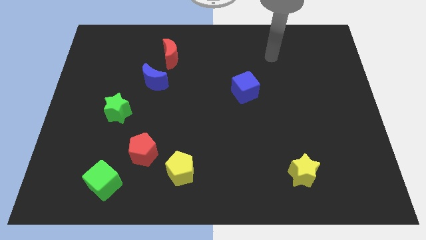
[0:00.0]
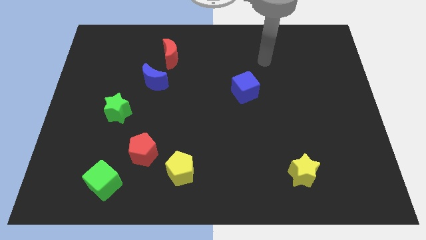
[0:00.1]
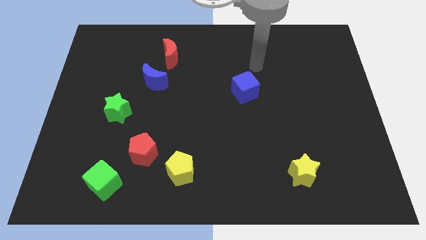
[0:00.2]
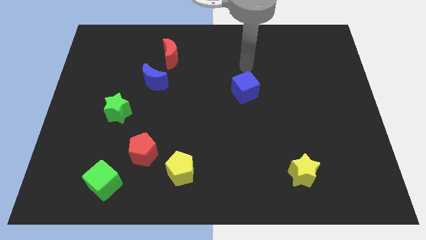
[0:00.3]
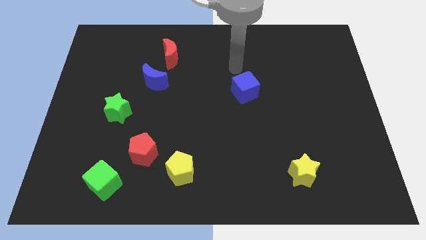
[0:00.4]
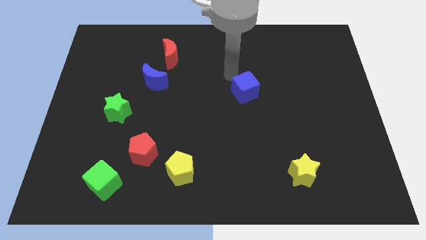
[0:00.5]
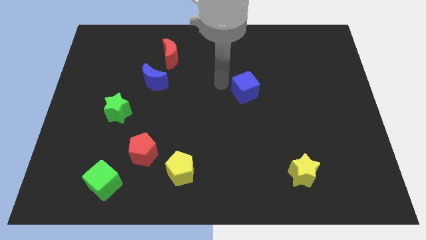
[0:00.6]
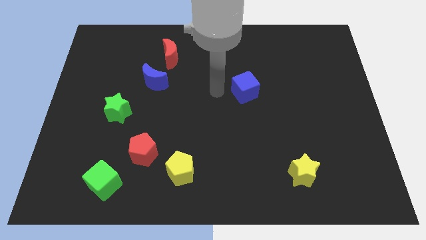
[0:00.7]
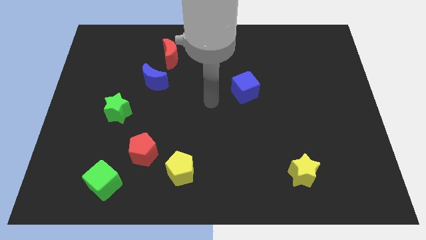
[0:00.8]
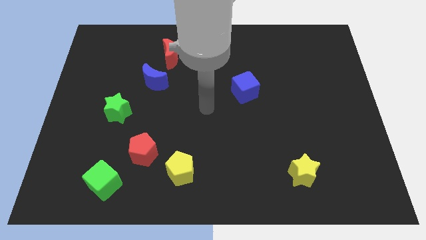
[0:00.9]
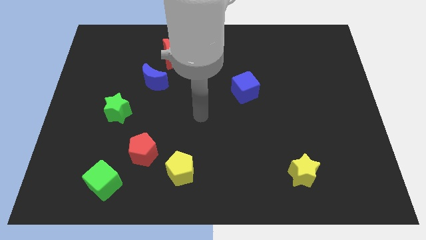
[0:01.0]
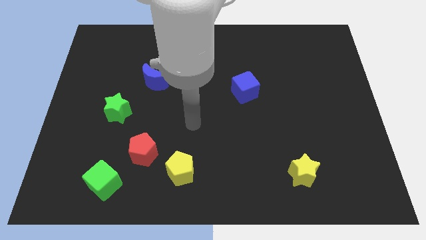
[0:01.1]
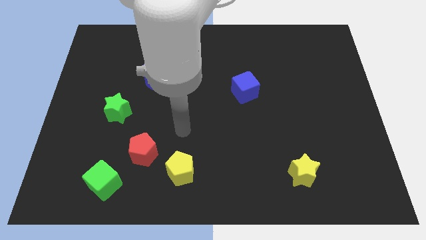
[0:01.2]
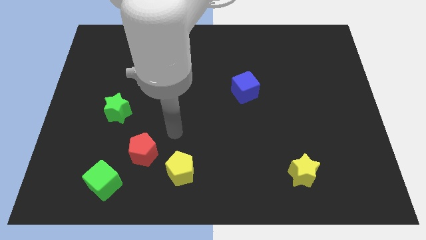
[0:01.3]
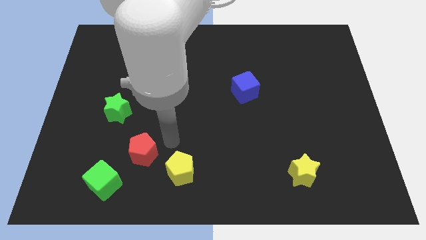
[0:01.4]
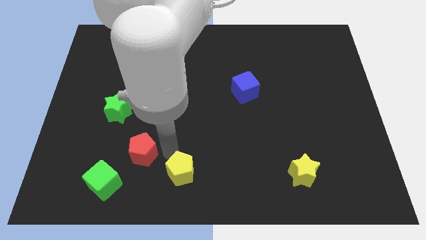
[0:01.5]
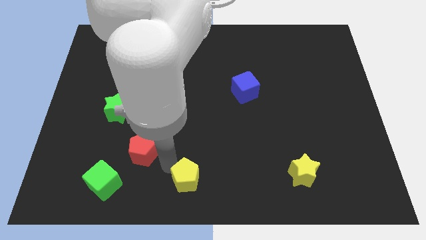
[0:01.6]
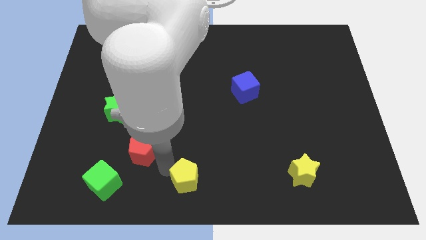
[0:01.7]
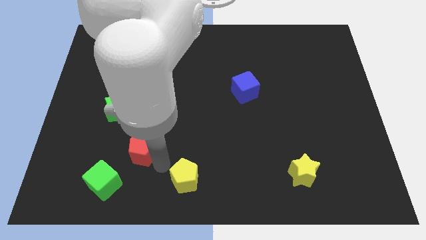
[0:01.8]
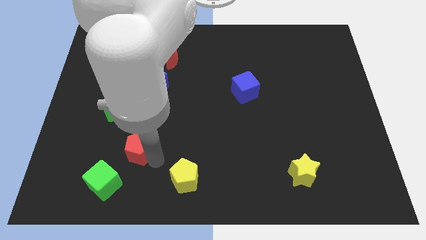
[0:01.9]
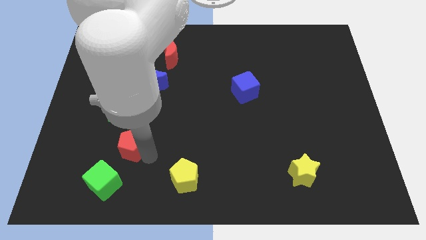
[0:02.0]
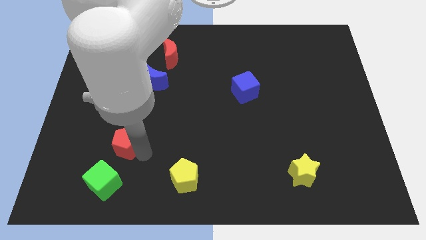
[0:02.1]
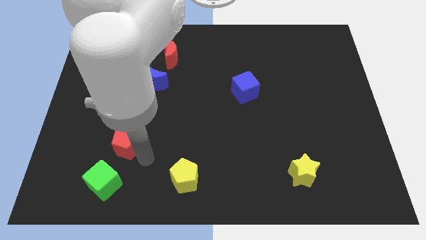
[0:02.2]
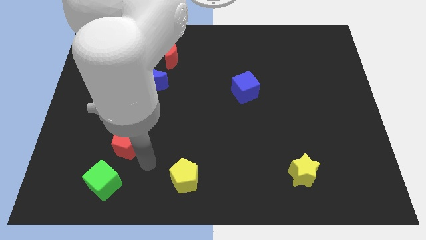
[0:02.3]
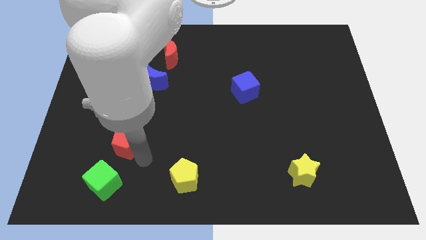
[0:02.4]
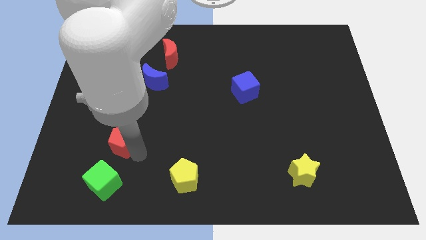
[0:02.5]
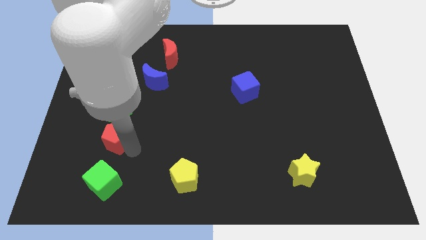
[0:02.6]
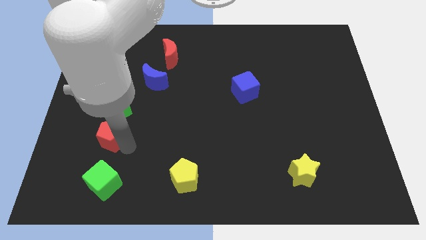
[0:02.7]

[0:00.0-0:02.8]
slightly move the red pentagon diagonally upwards and left

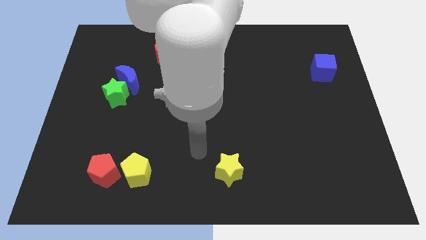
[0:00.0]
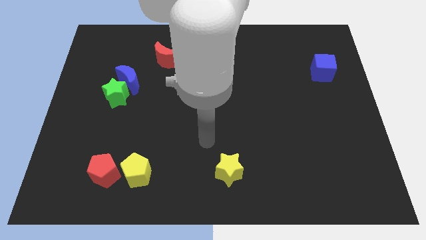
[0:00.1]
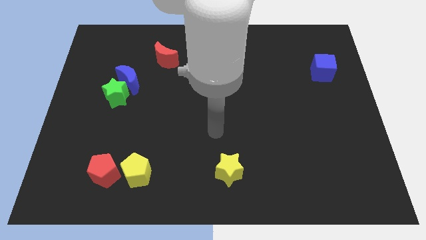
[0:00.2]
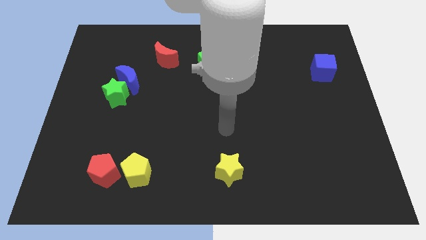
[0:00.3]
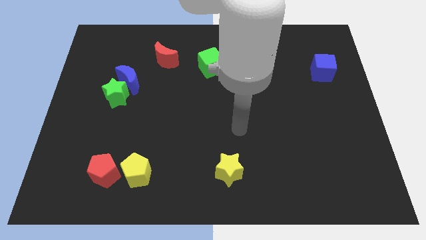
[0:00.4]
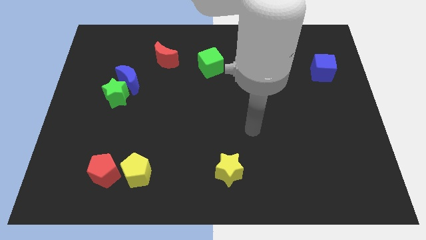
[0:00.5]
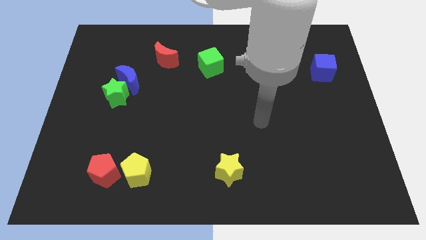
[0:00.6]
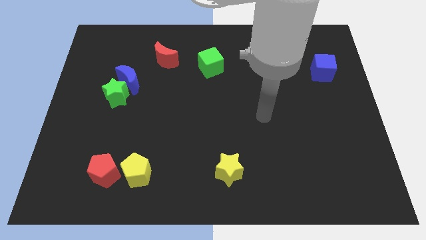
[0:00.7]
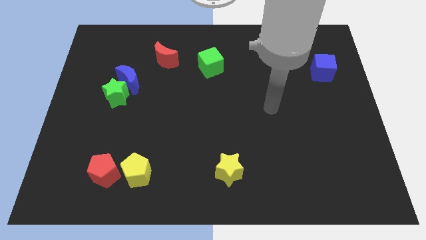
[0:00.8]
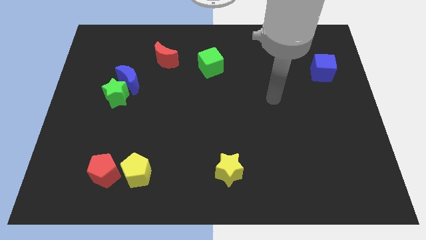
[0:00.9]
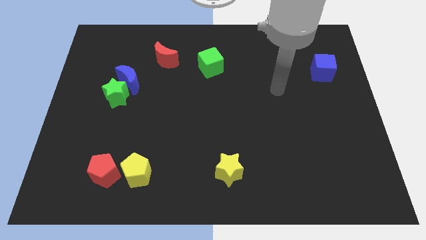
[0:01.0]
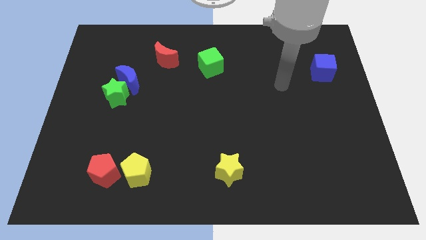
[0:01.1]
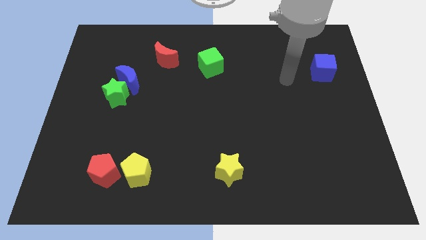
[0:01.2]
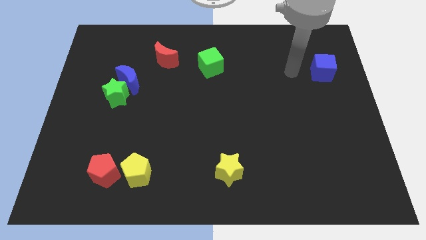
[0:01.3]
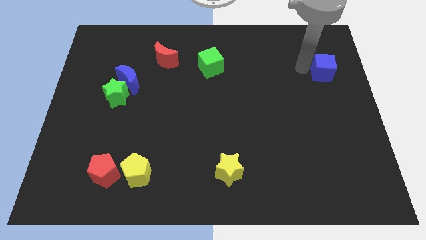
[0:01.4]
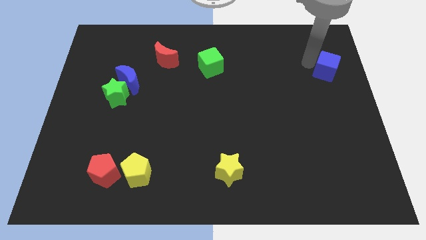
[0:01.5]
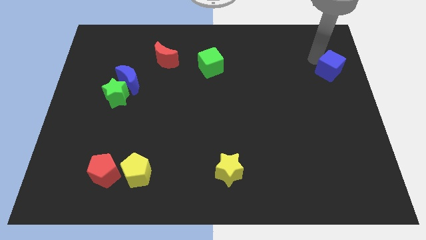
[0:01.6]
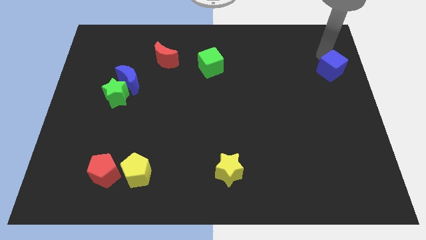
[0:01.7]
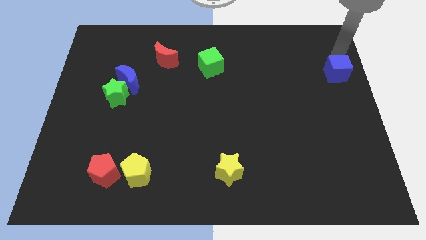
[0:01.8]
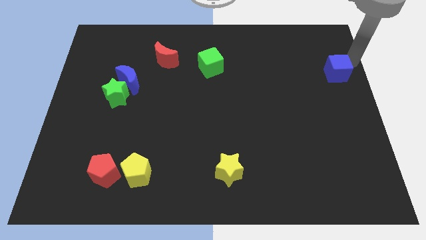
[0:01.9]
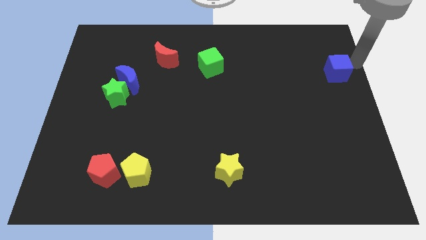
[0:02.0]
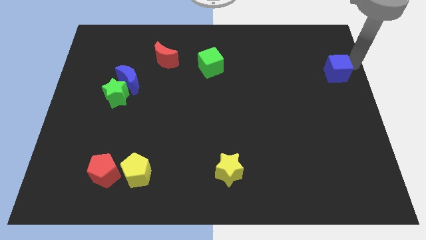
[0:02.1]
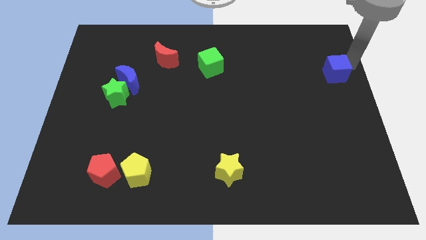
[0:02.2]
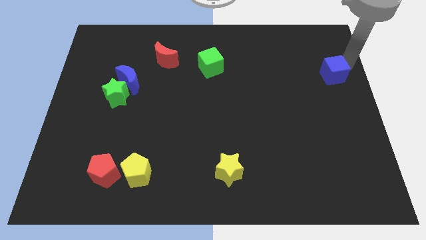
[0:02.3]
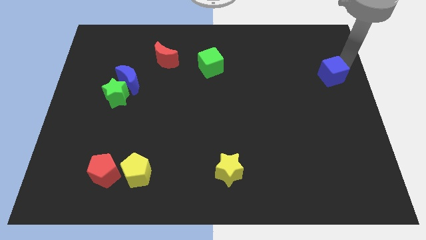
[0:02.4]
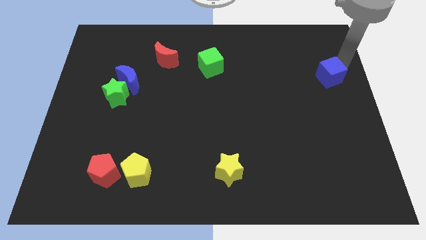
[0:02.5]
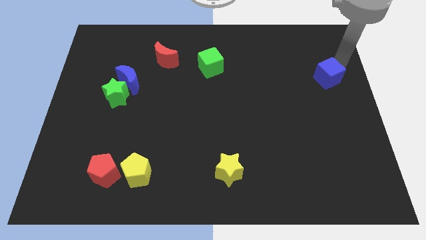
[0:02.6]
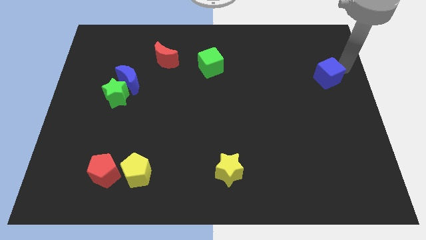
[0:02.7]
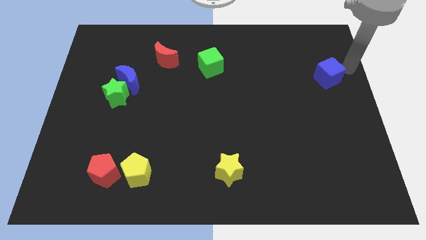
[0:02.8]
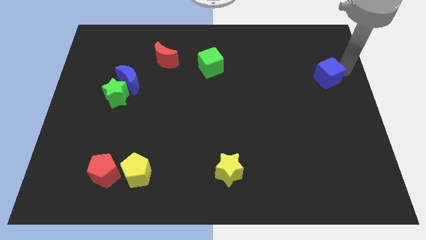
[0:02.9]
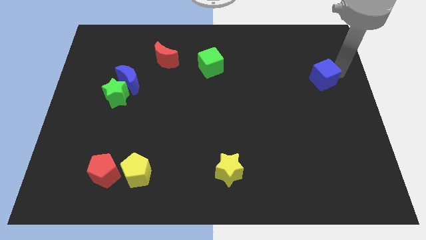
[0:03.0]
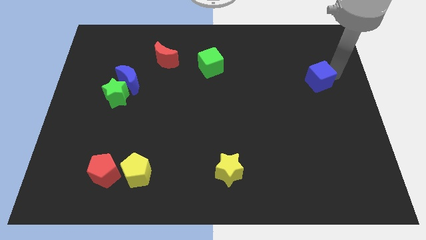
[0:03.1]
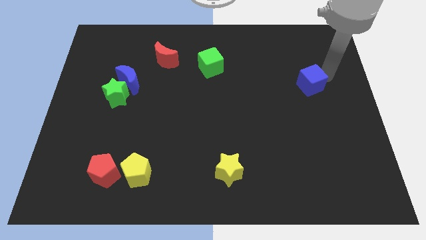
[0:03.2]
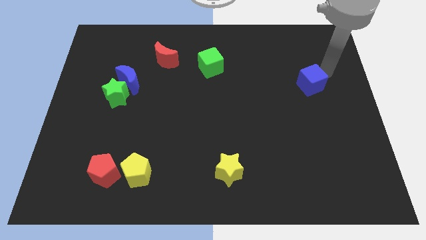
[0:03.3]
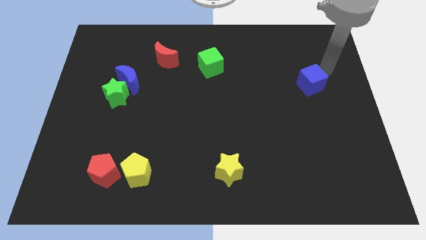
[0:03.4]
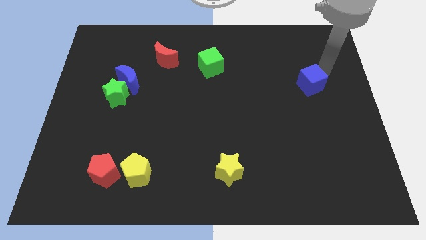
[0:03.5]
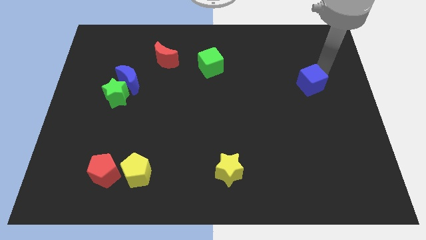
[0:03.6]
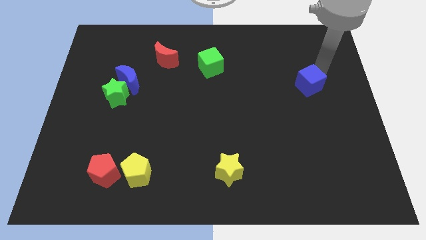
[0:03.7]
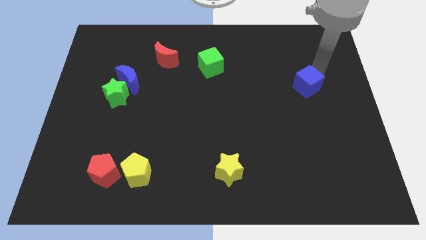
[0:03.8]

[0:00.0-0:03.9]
push the blue cube down and left diagonally somewhat

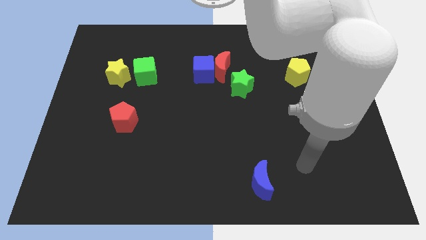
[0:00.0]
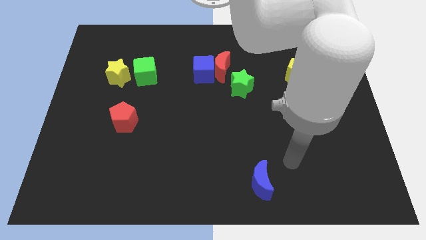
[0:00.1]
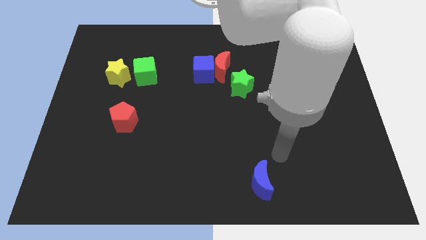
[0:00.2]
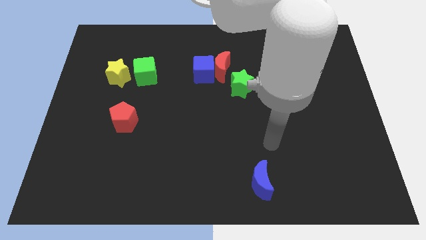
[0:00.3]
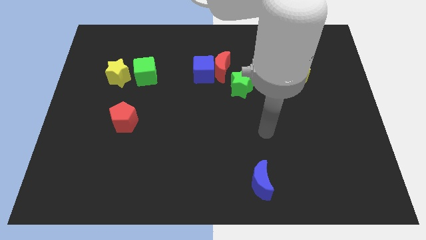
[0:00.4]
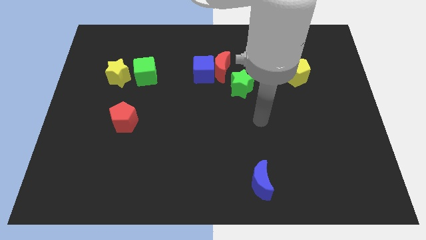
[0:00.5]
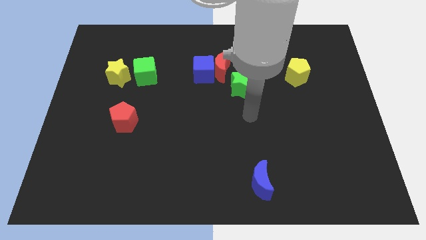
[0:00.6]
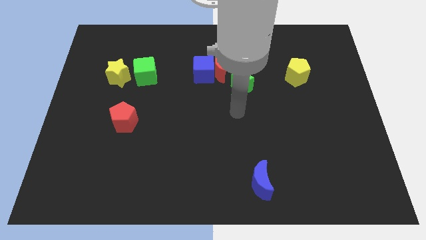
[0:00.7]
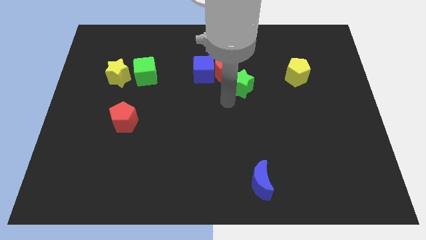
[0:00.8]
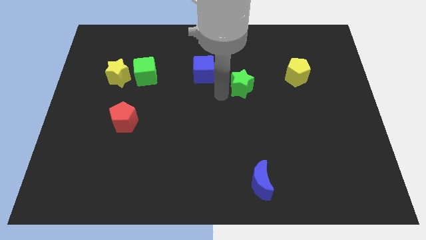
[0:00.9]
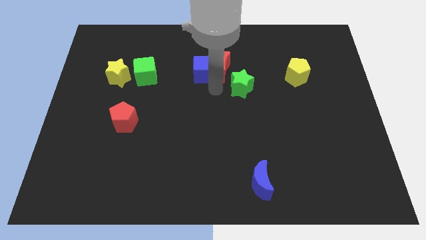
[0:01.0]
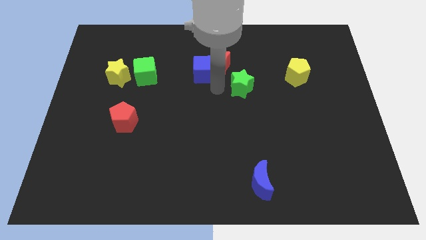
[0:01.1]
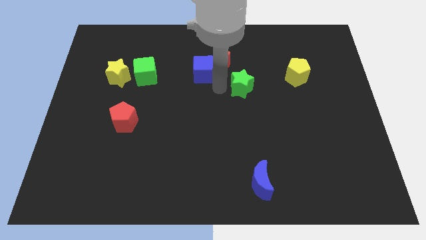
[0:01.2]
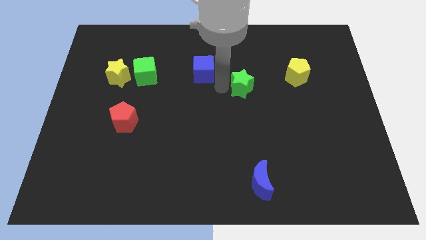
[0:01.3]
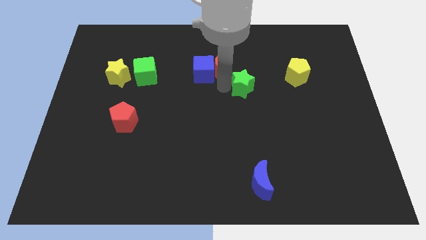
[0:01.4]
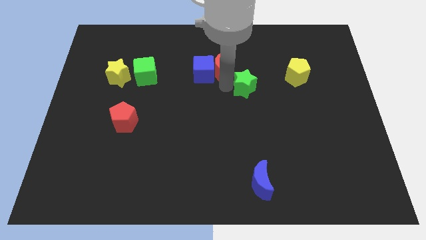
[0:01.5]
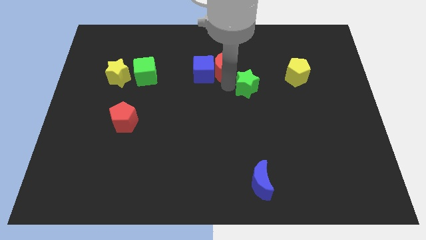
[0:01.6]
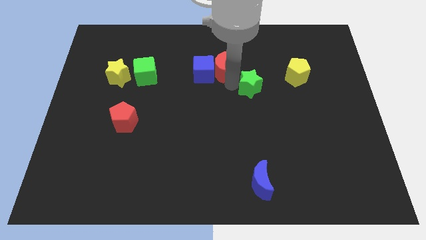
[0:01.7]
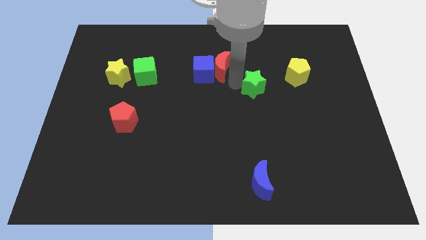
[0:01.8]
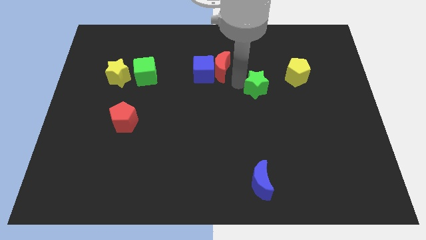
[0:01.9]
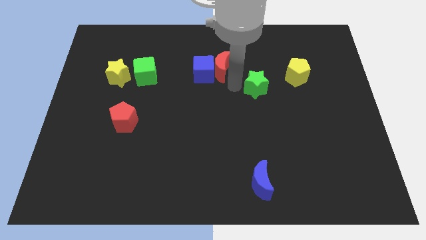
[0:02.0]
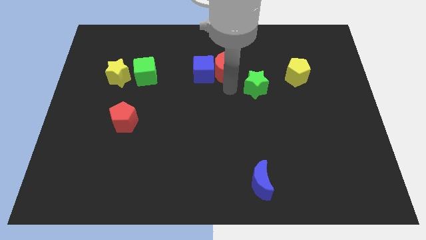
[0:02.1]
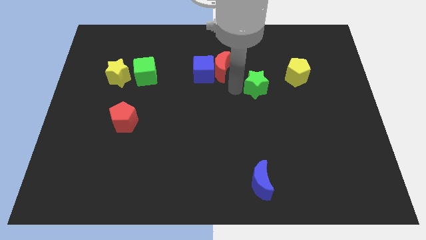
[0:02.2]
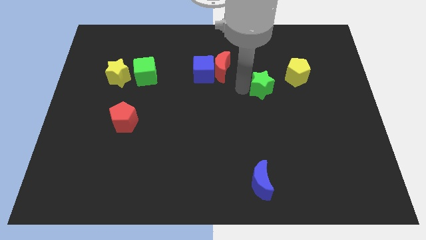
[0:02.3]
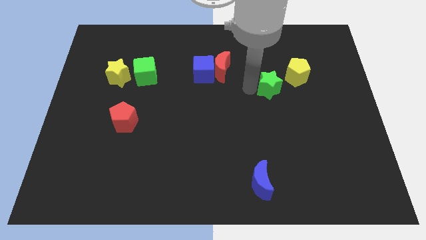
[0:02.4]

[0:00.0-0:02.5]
push the green star a bit to the right
